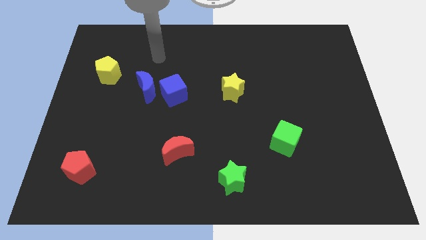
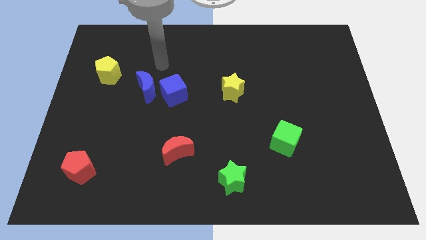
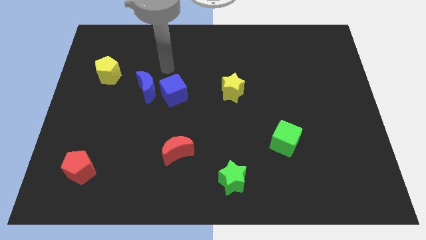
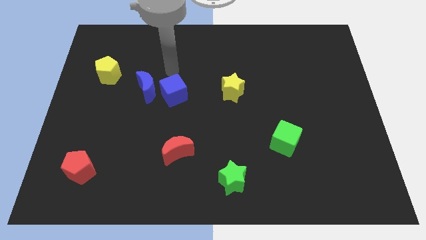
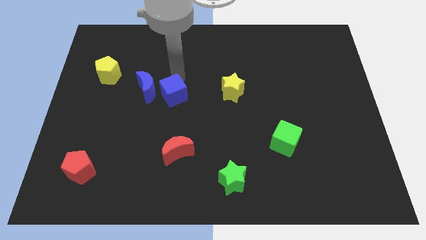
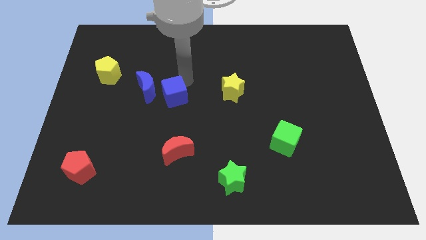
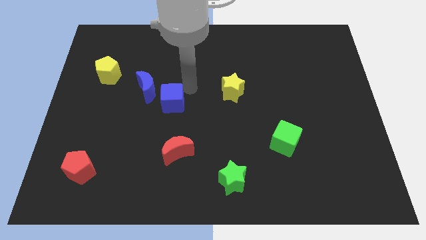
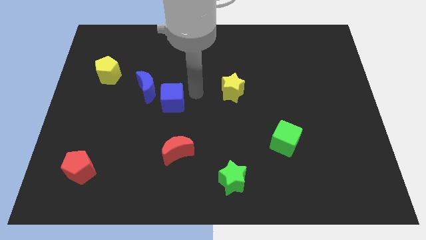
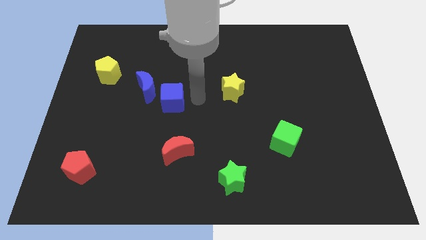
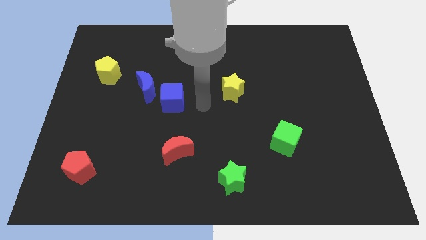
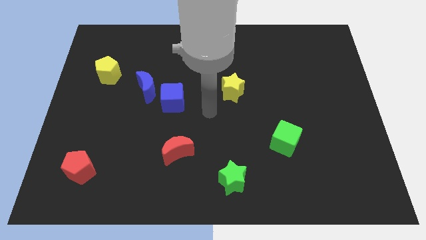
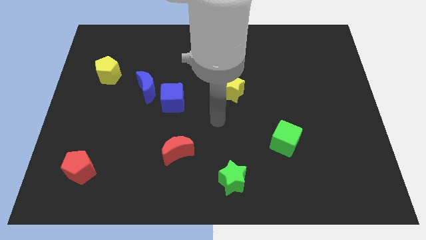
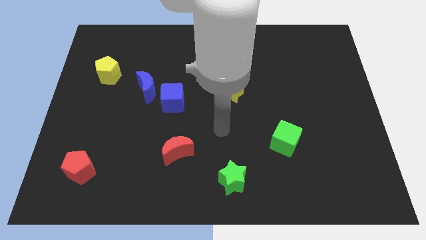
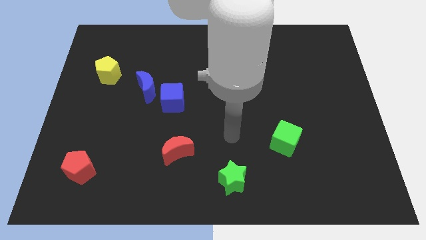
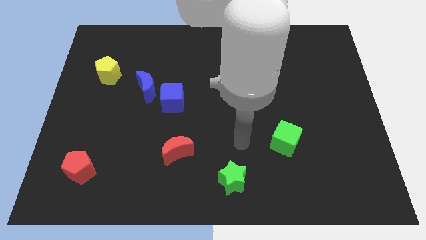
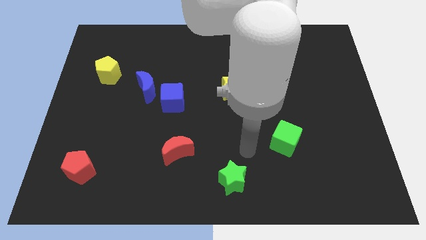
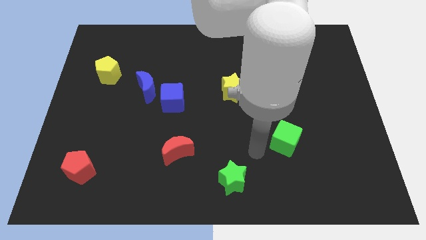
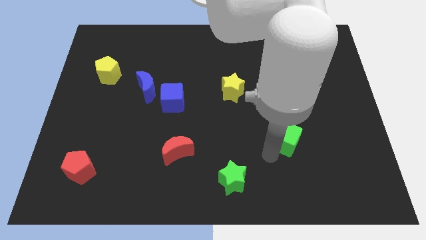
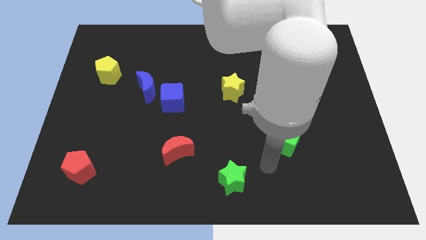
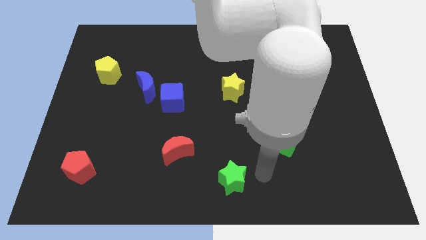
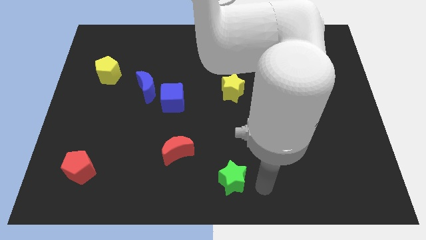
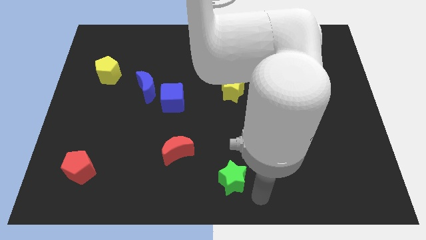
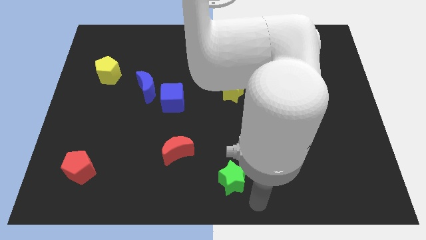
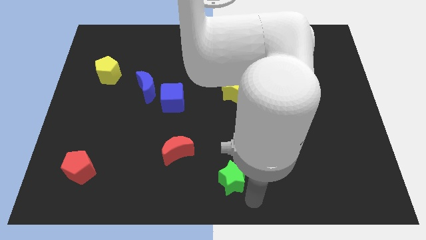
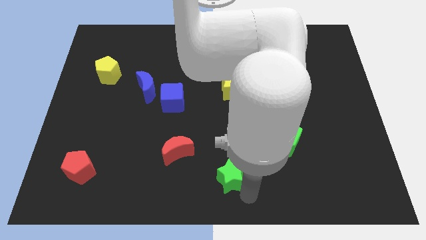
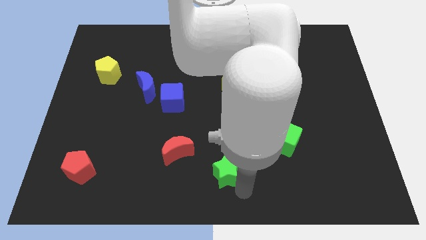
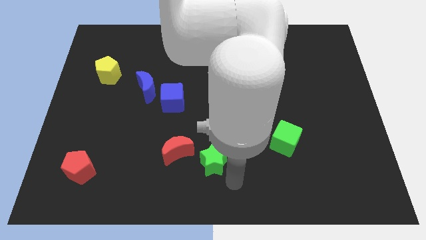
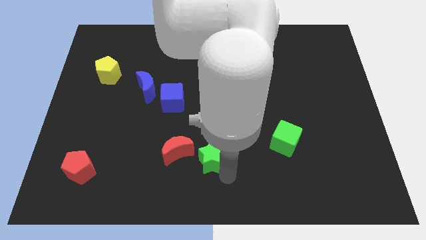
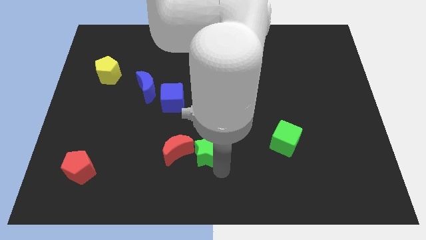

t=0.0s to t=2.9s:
push the green star somewhat up and to the left diagonally

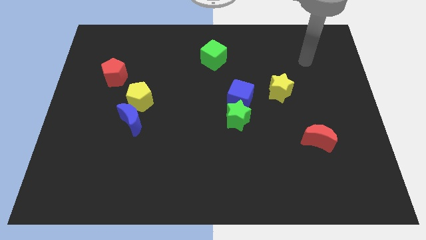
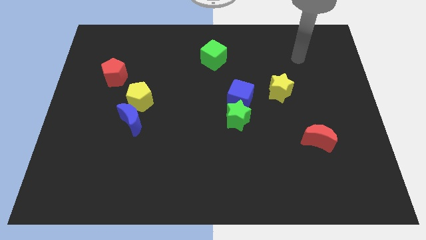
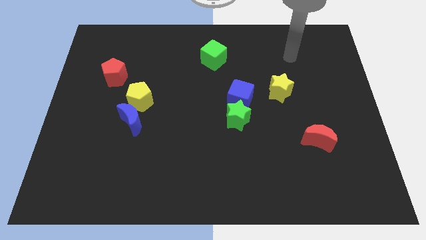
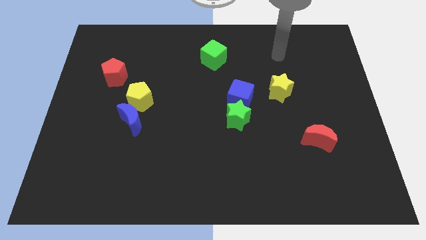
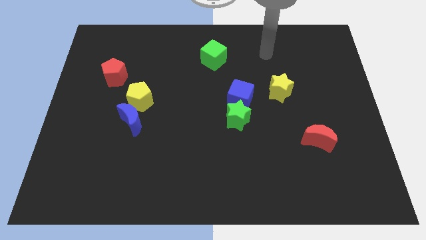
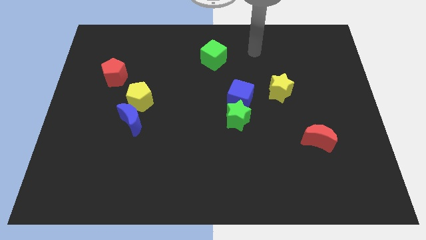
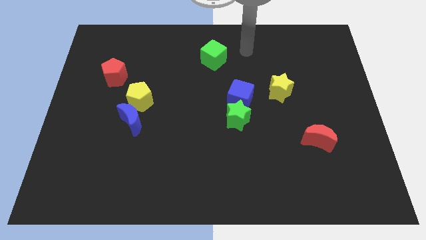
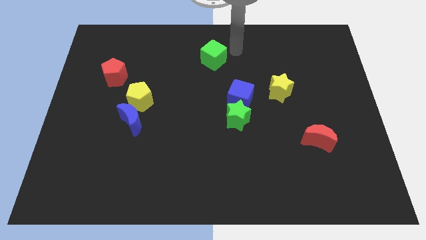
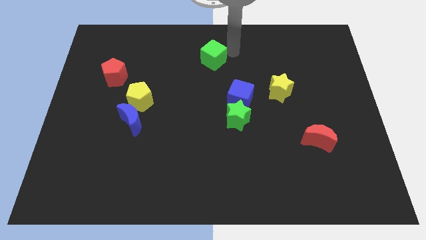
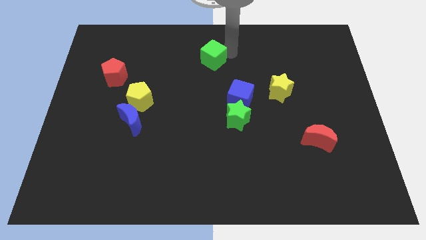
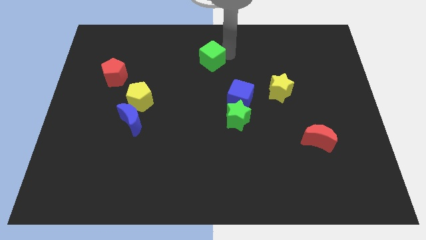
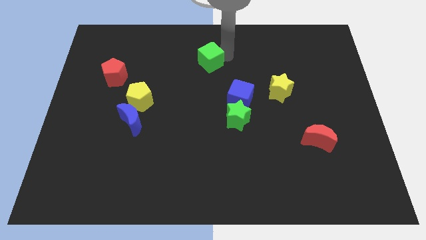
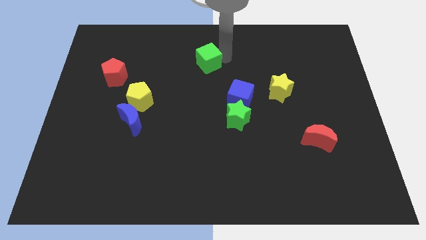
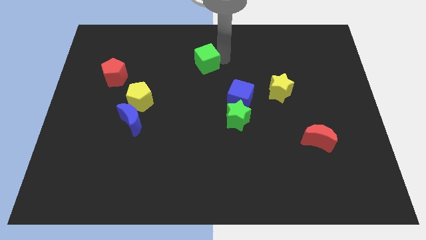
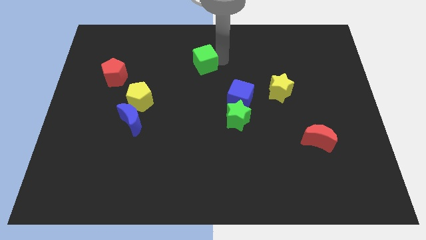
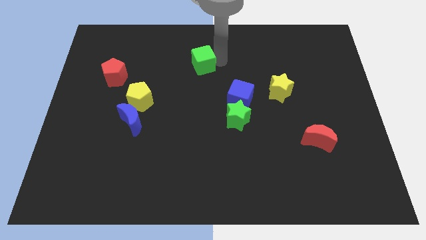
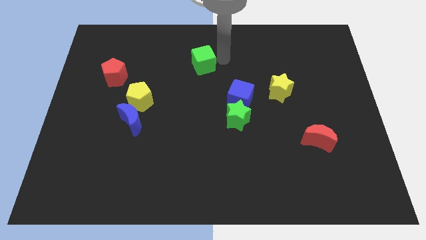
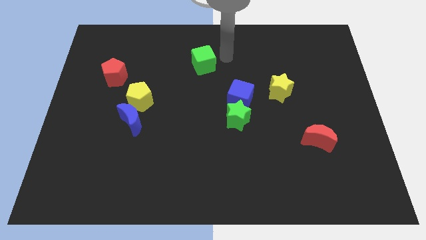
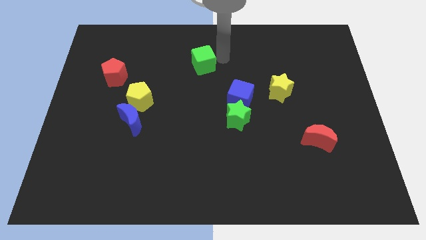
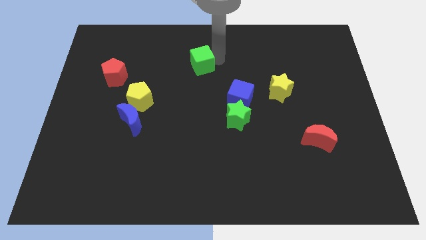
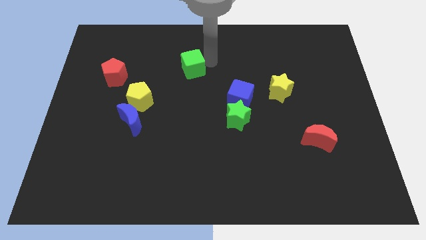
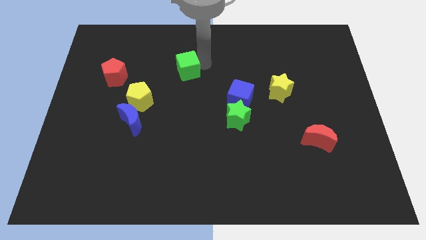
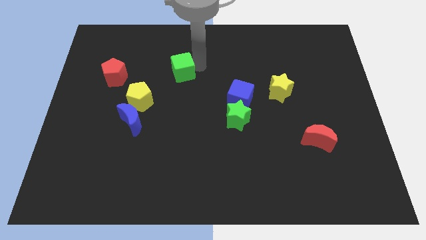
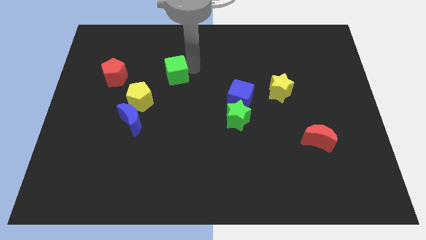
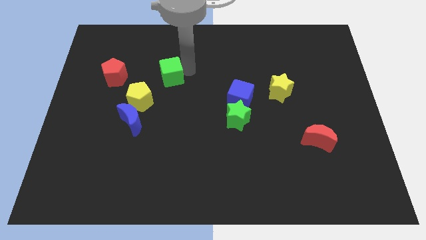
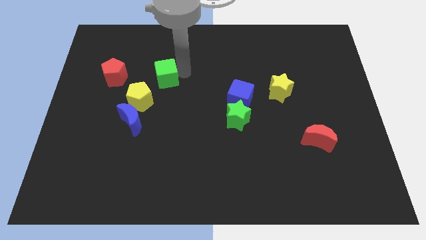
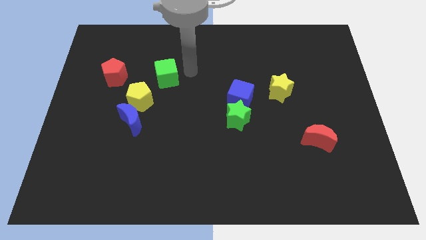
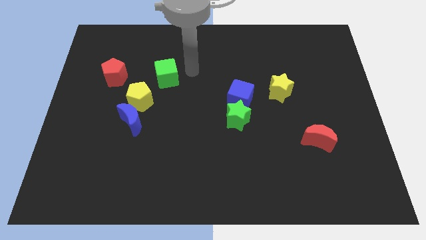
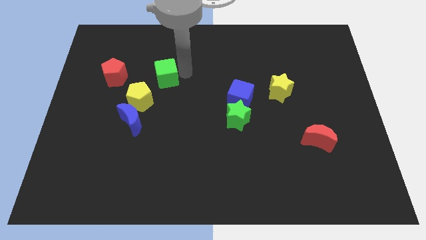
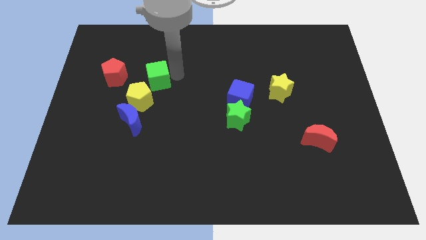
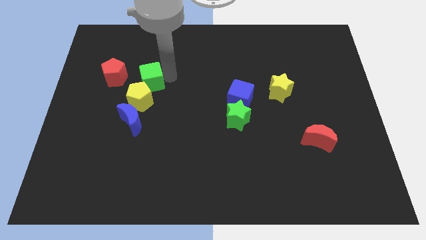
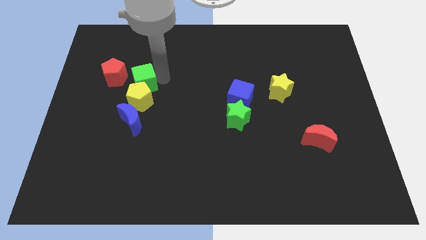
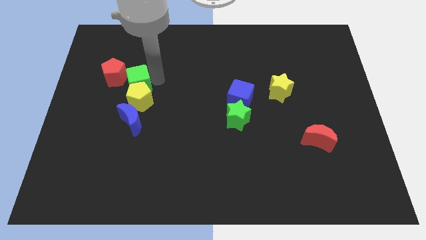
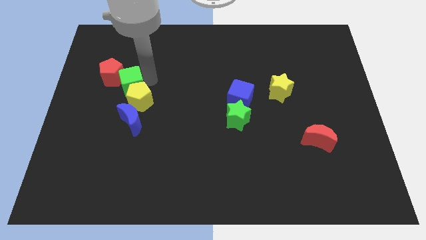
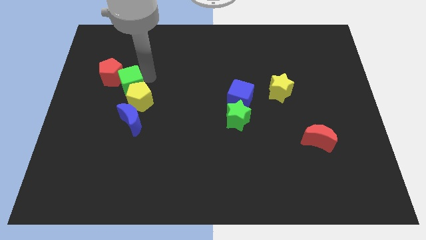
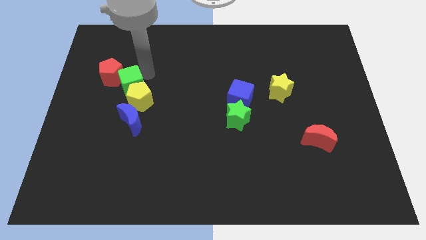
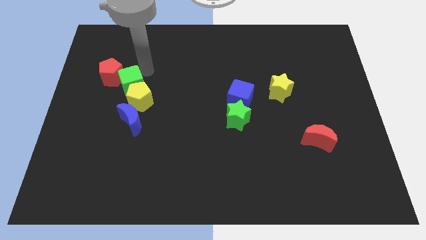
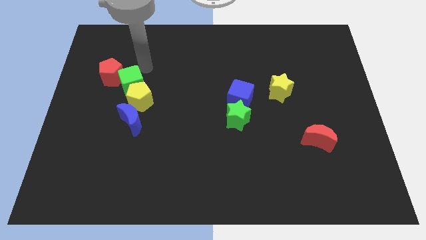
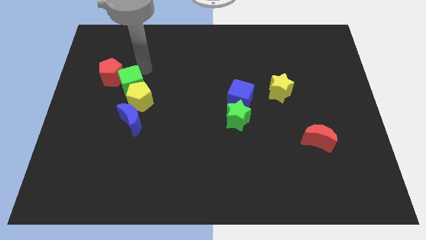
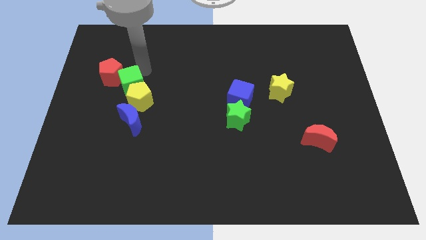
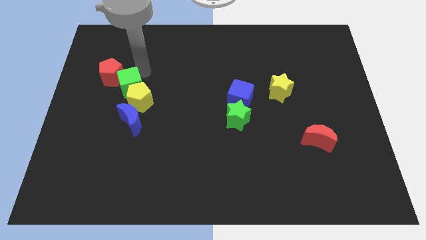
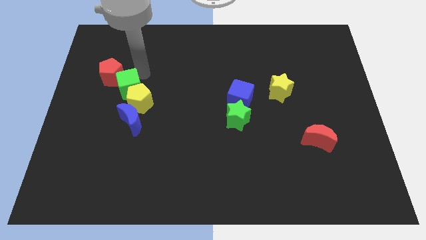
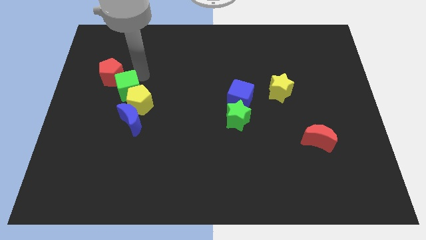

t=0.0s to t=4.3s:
slide the green cube down and then left

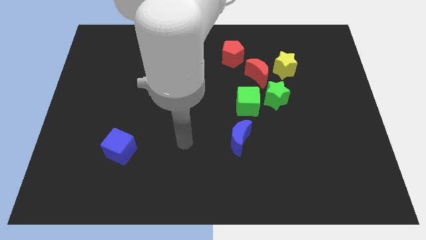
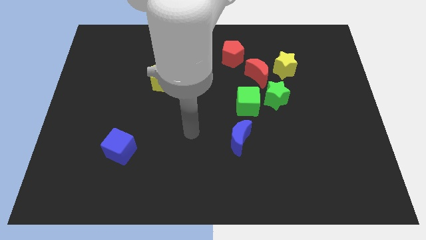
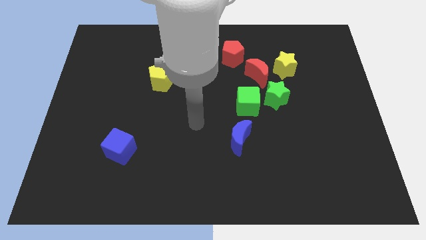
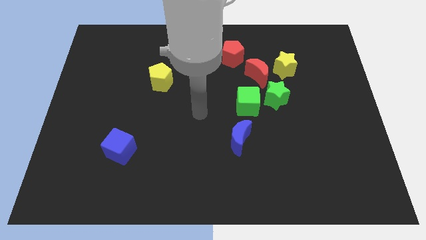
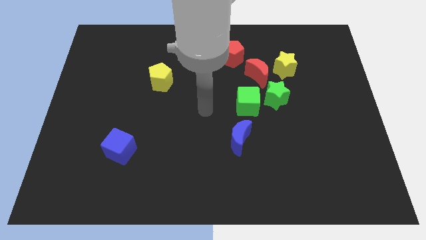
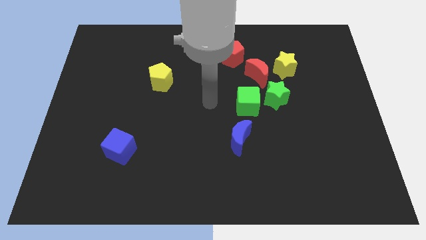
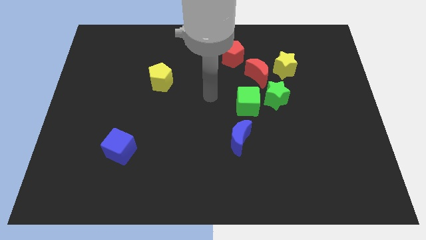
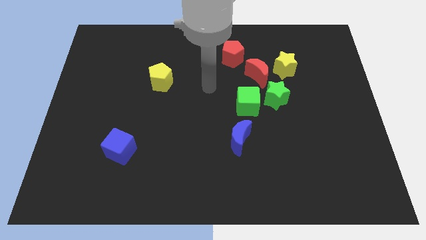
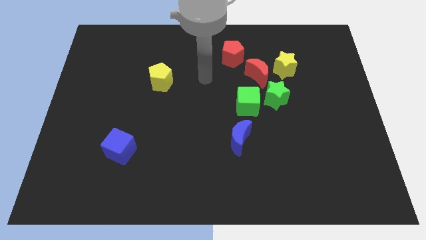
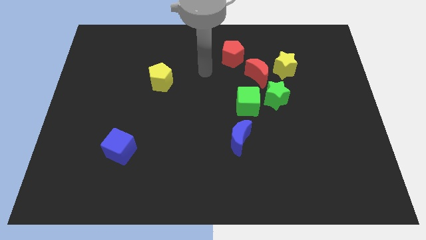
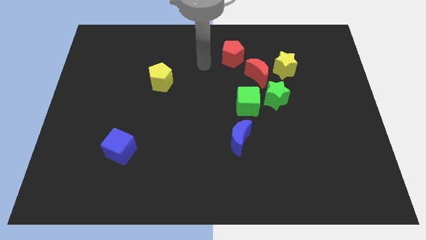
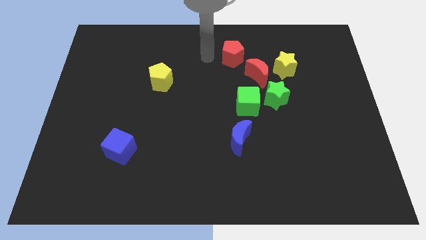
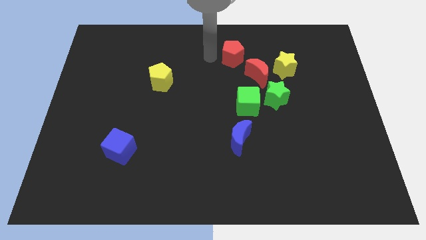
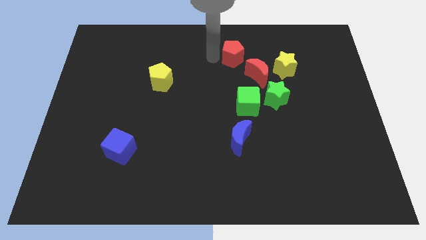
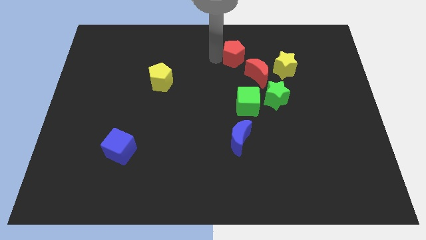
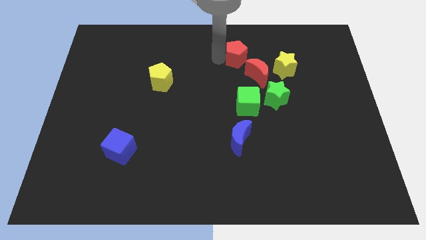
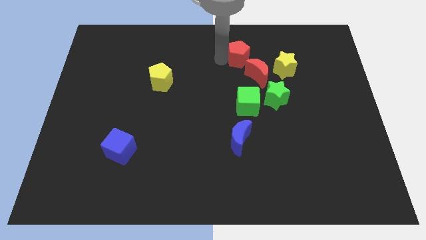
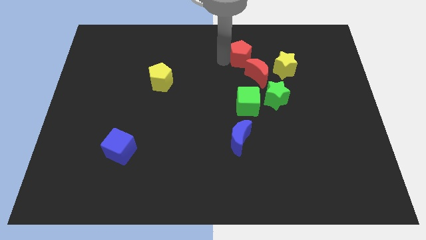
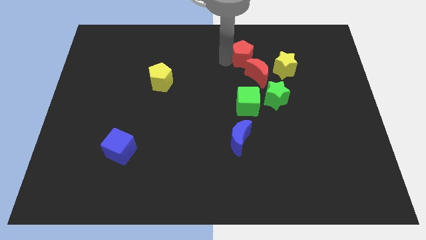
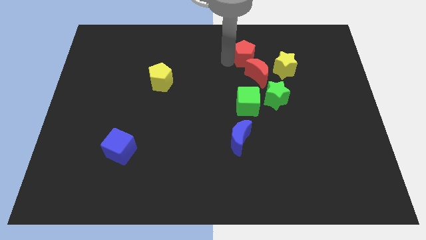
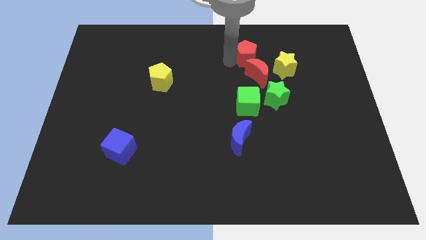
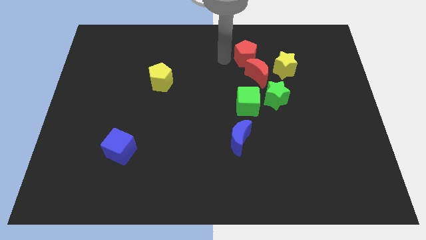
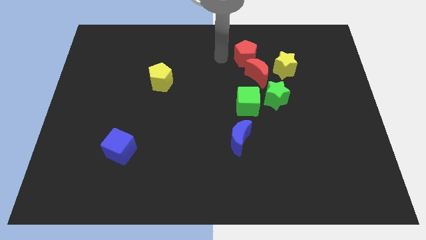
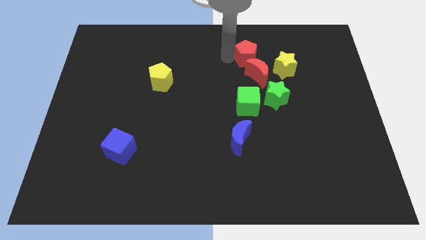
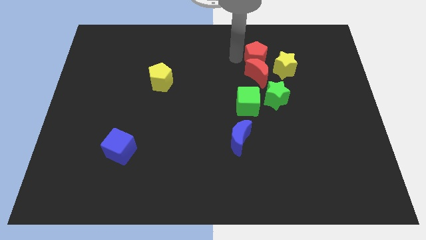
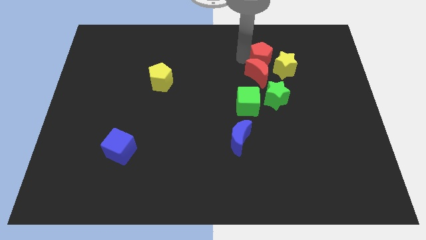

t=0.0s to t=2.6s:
push the red pentagon a little bit to the right
